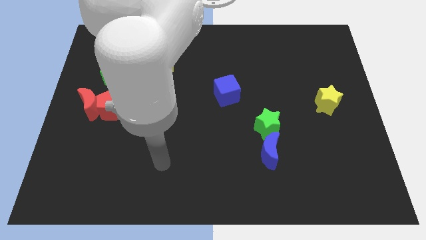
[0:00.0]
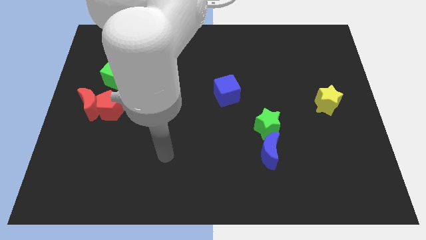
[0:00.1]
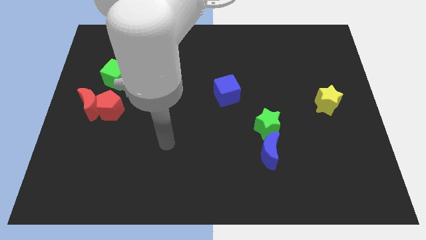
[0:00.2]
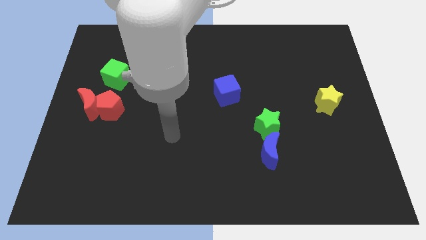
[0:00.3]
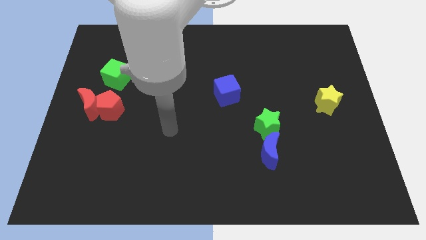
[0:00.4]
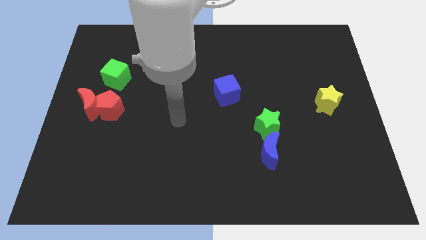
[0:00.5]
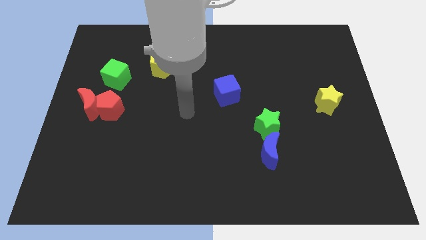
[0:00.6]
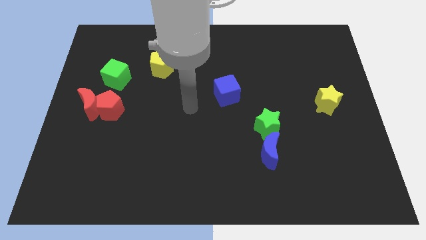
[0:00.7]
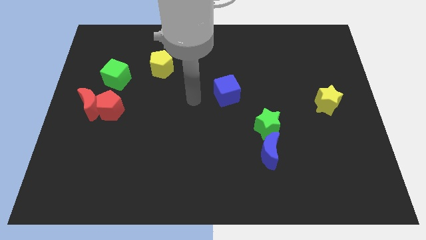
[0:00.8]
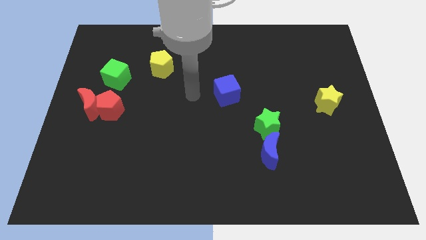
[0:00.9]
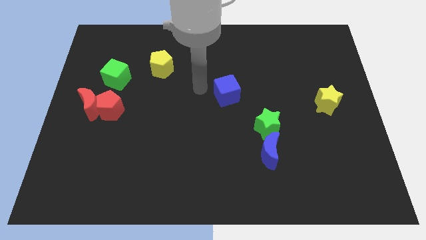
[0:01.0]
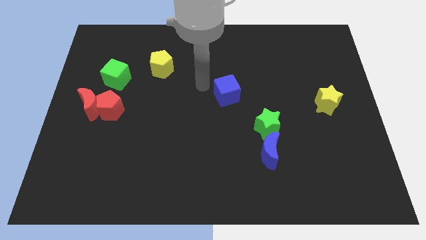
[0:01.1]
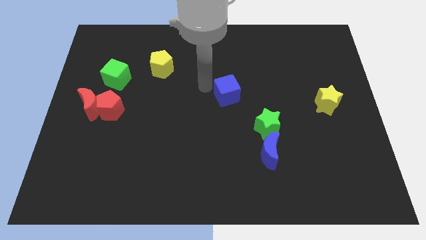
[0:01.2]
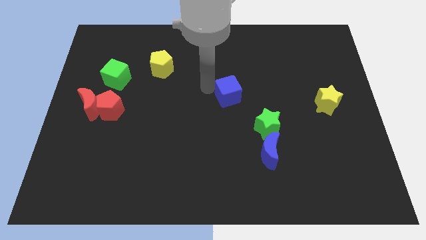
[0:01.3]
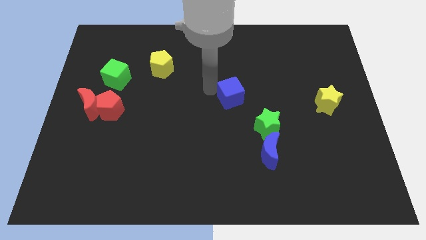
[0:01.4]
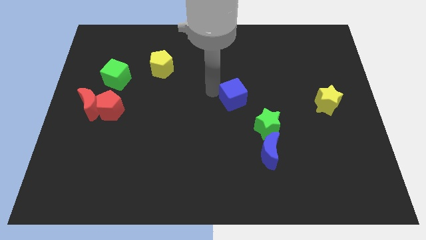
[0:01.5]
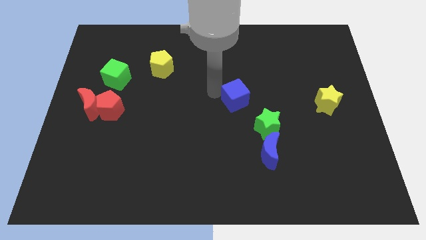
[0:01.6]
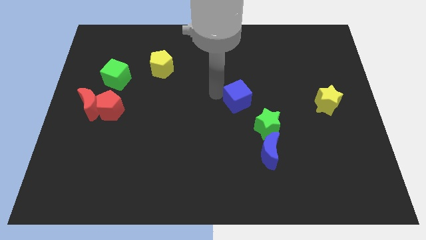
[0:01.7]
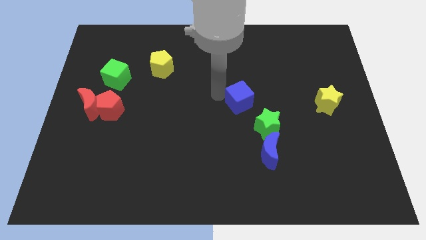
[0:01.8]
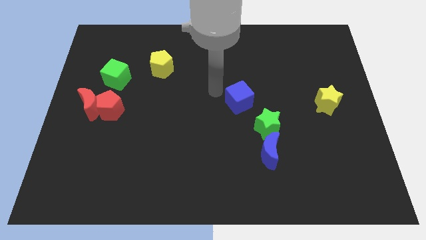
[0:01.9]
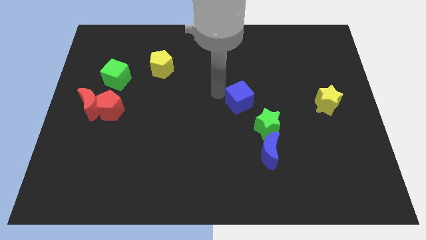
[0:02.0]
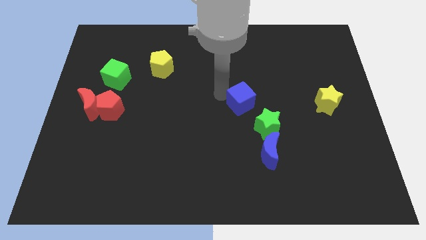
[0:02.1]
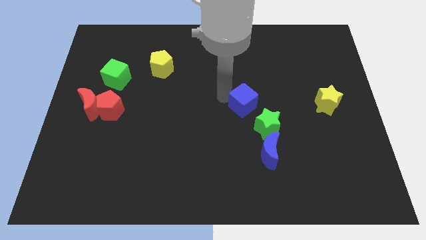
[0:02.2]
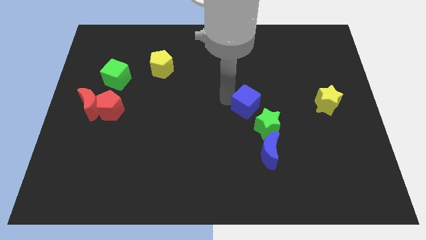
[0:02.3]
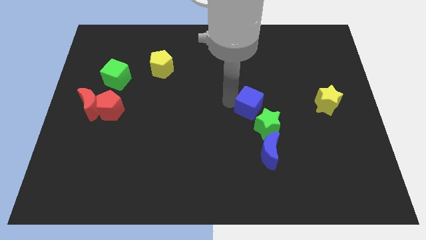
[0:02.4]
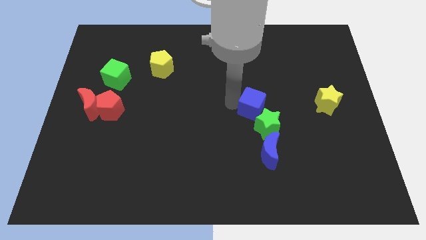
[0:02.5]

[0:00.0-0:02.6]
push the blue cube somewhat down and then to the right

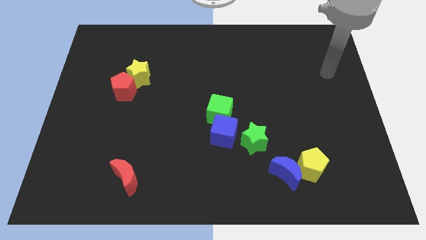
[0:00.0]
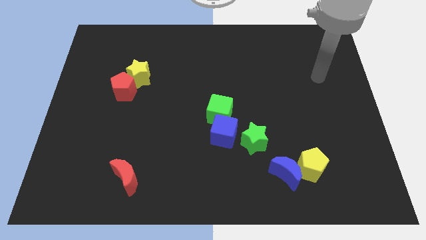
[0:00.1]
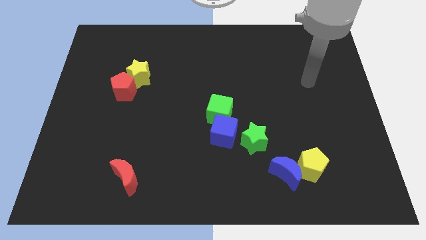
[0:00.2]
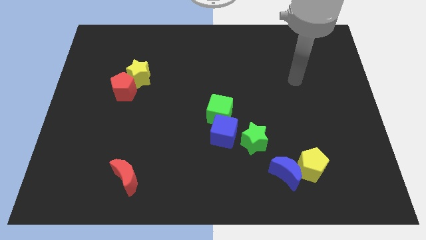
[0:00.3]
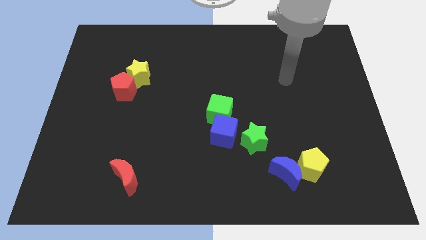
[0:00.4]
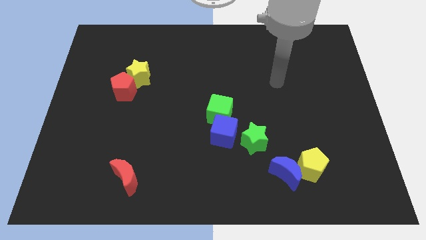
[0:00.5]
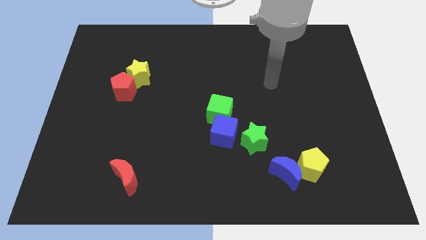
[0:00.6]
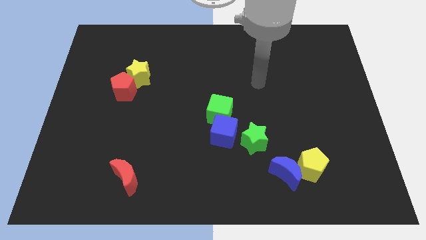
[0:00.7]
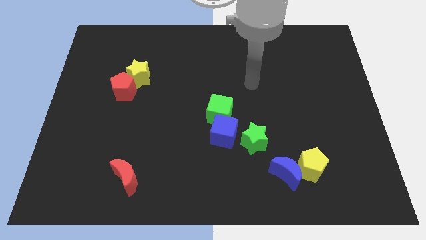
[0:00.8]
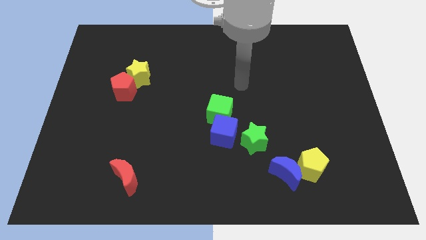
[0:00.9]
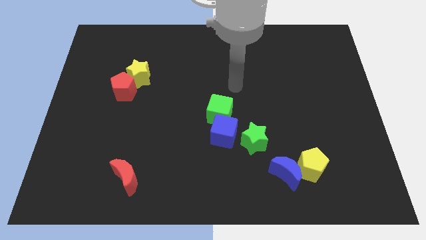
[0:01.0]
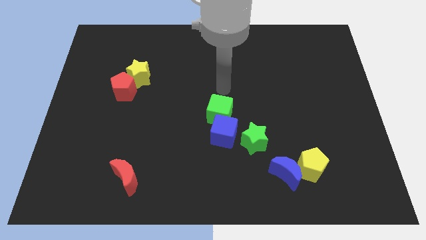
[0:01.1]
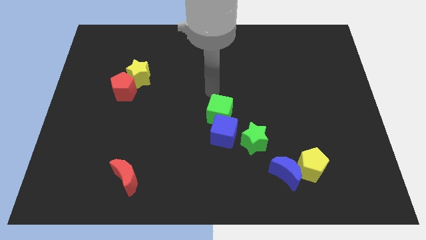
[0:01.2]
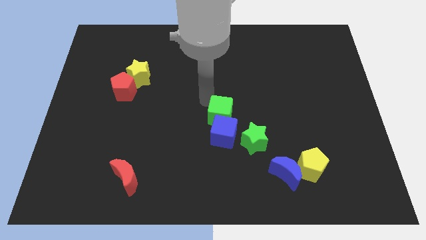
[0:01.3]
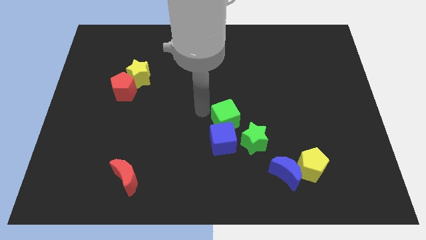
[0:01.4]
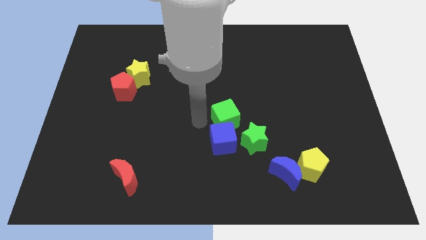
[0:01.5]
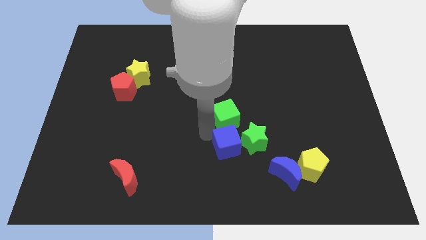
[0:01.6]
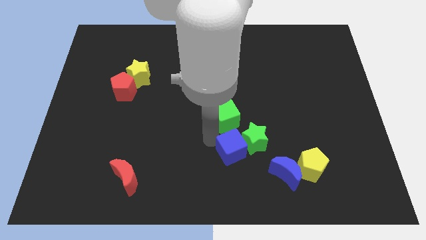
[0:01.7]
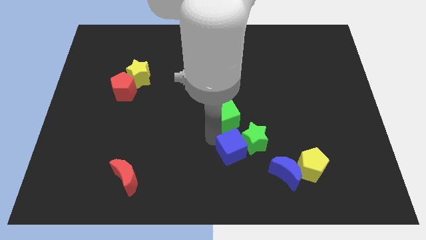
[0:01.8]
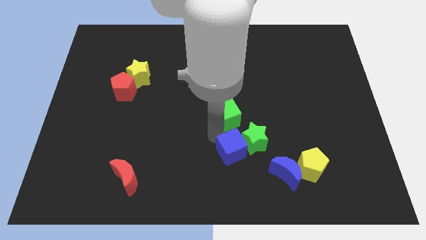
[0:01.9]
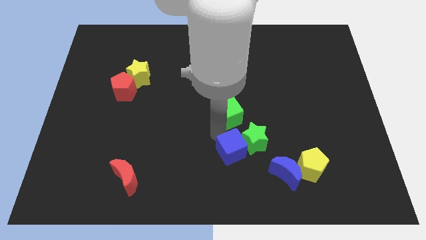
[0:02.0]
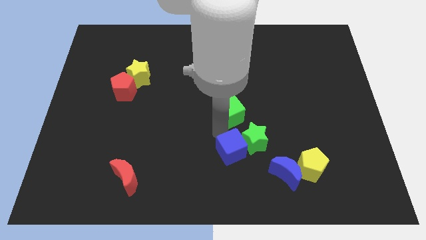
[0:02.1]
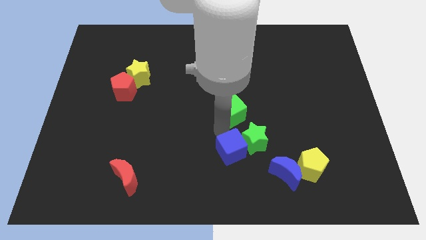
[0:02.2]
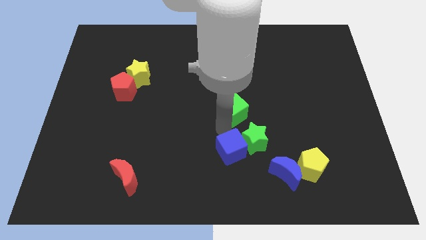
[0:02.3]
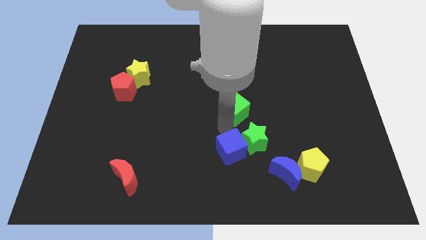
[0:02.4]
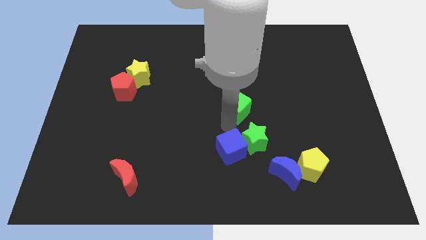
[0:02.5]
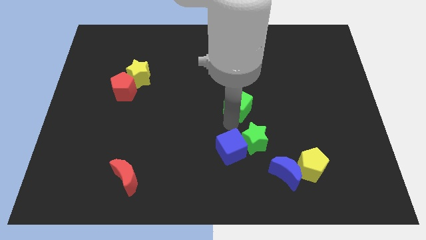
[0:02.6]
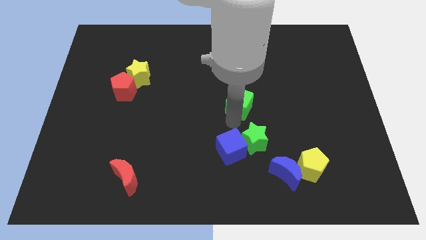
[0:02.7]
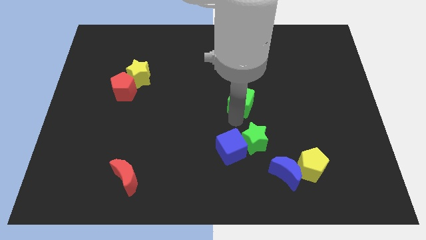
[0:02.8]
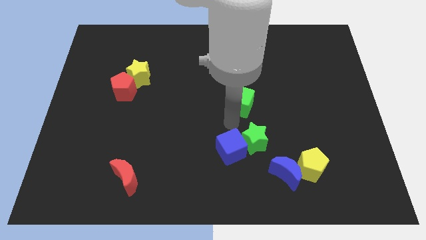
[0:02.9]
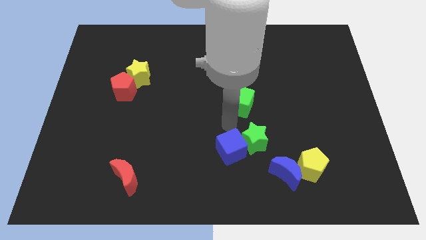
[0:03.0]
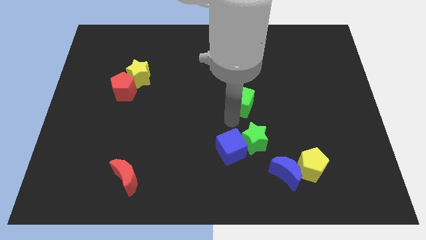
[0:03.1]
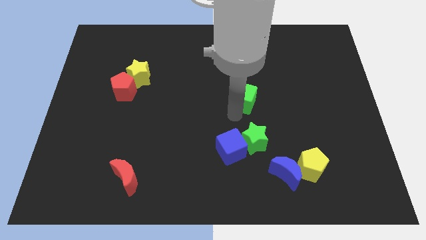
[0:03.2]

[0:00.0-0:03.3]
slide the green cube slightly up and right diagonally

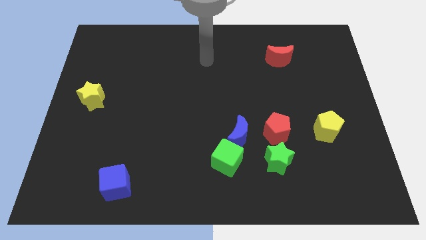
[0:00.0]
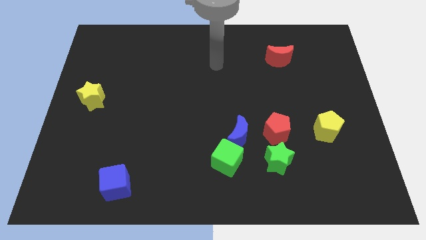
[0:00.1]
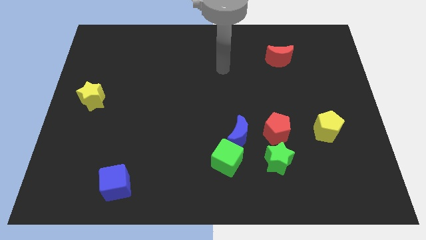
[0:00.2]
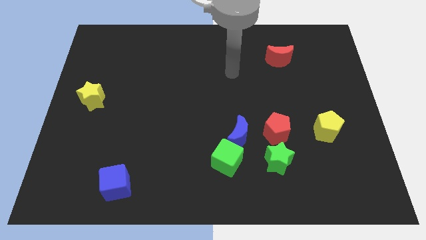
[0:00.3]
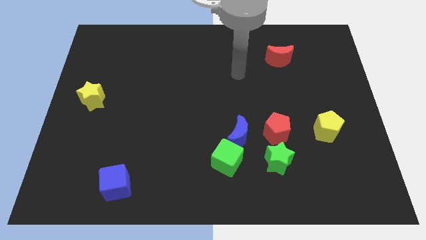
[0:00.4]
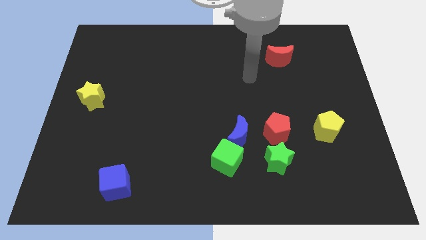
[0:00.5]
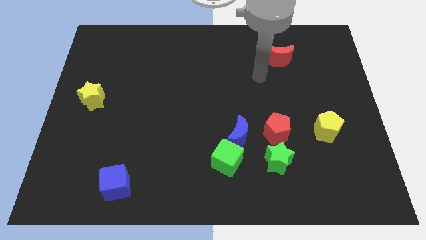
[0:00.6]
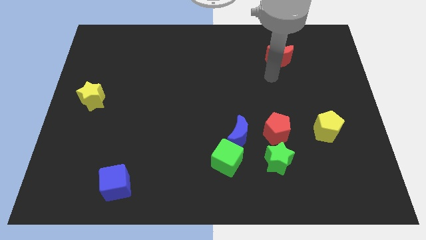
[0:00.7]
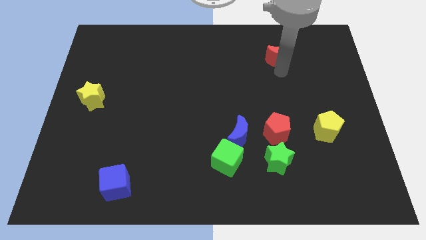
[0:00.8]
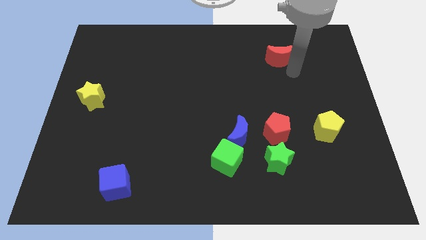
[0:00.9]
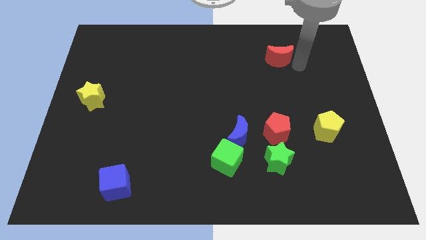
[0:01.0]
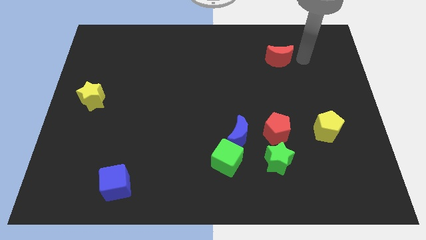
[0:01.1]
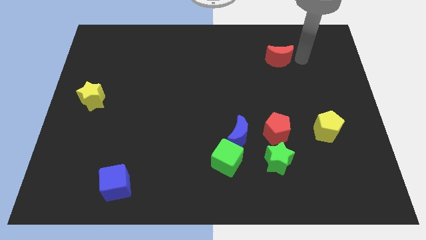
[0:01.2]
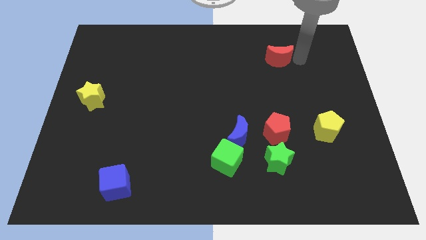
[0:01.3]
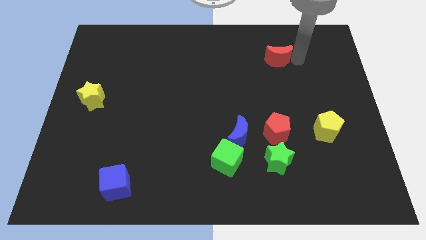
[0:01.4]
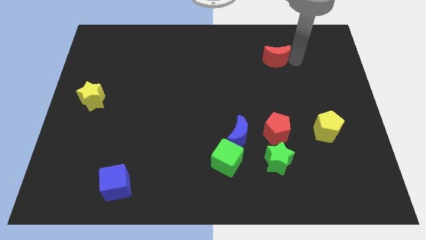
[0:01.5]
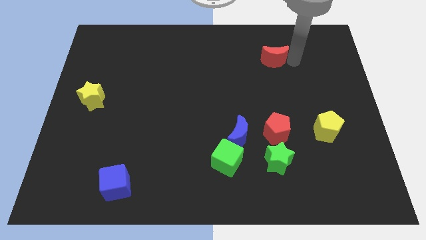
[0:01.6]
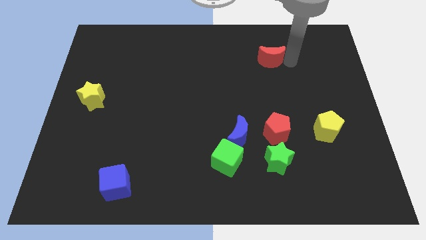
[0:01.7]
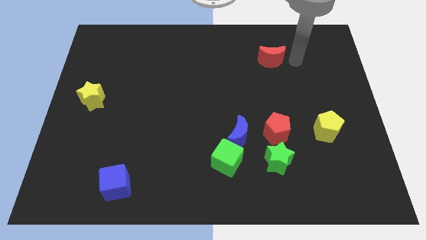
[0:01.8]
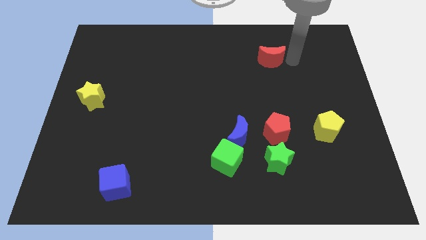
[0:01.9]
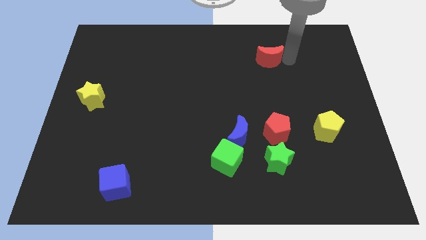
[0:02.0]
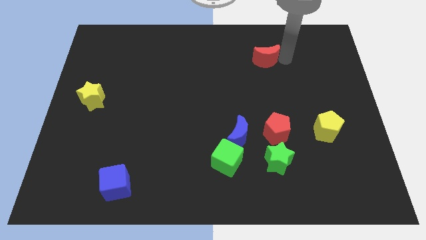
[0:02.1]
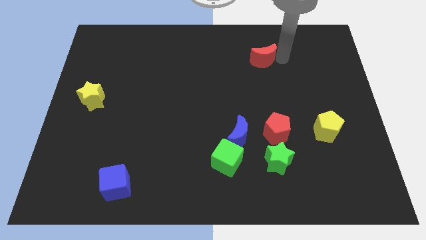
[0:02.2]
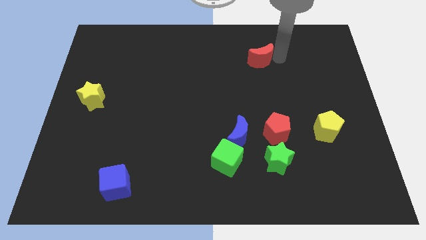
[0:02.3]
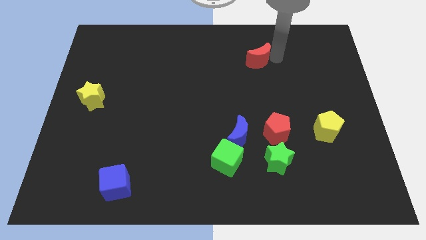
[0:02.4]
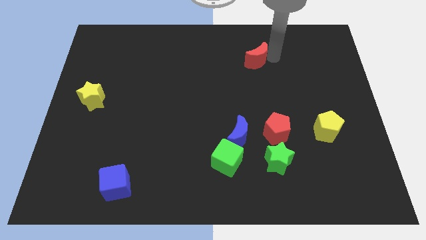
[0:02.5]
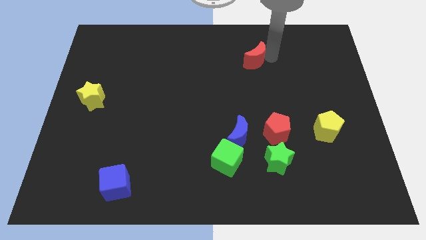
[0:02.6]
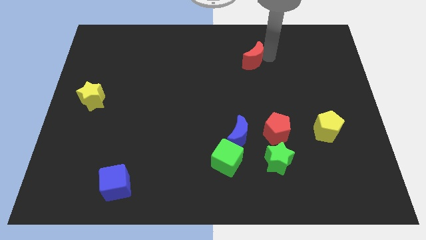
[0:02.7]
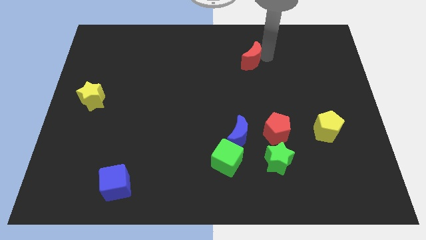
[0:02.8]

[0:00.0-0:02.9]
slightly move the red moon to the left
